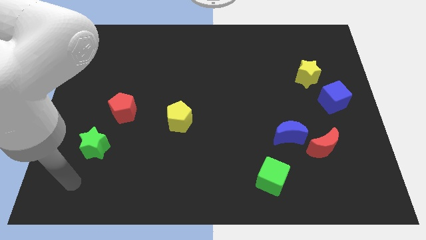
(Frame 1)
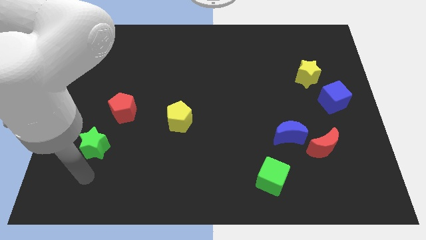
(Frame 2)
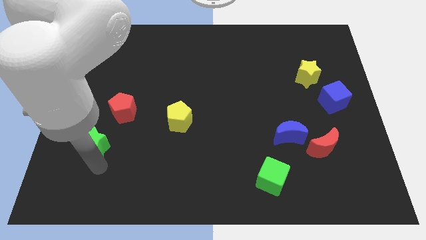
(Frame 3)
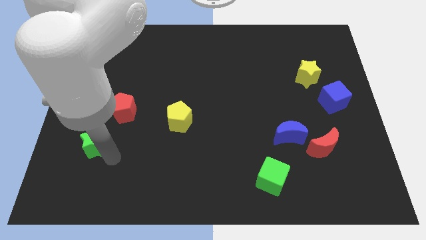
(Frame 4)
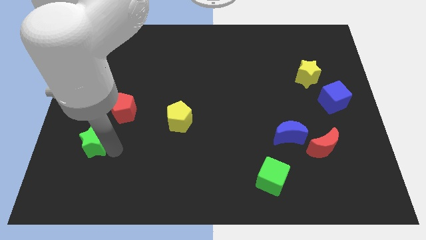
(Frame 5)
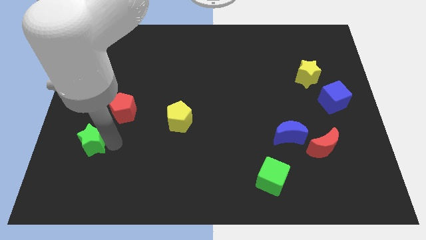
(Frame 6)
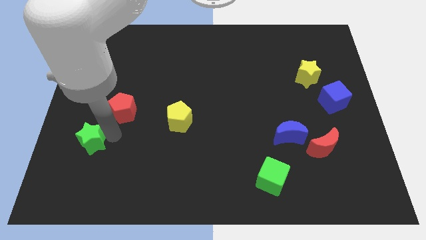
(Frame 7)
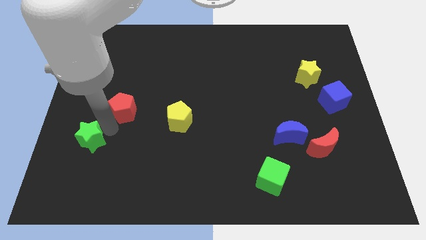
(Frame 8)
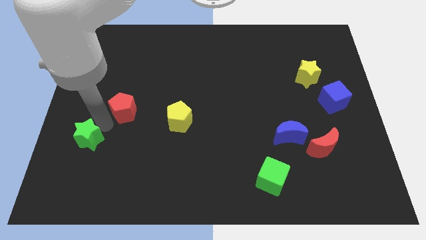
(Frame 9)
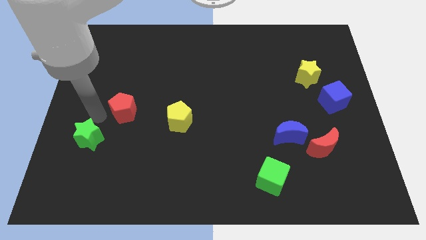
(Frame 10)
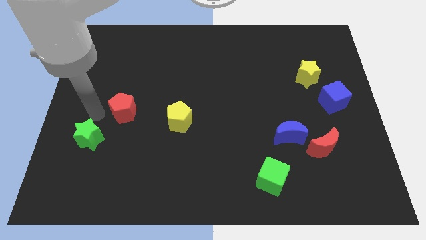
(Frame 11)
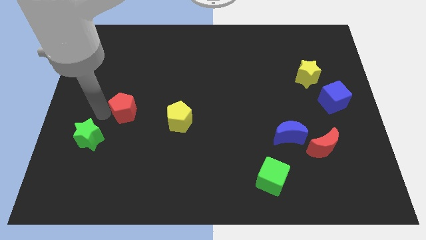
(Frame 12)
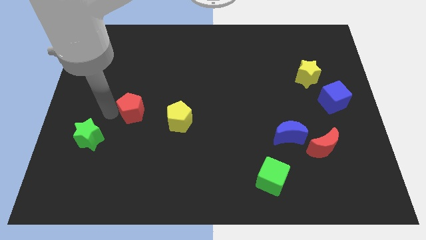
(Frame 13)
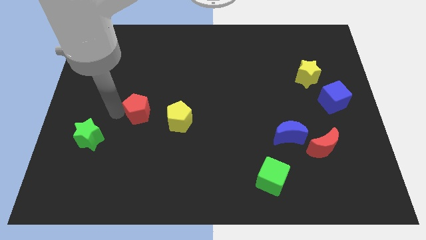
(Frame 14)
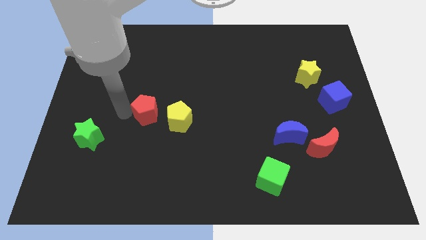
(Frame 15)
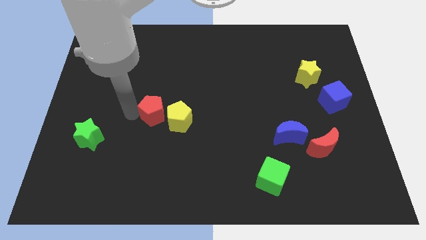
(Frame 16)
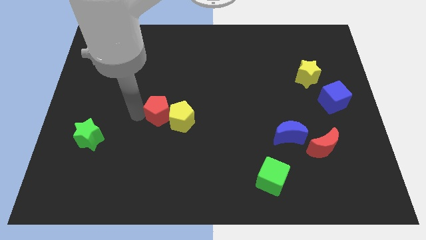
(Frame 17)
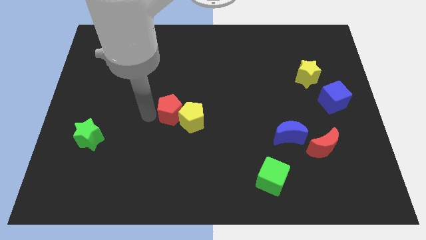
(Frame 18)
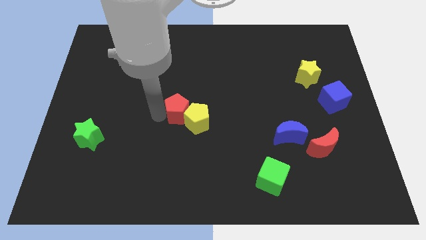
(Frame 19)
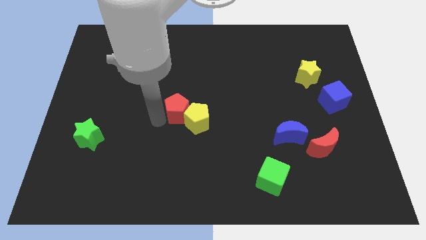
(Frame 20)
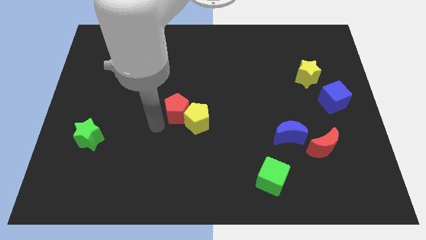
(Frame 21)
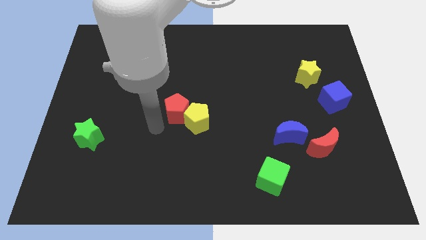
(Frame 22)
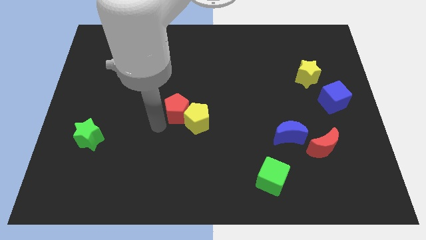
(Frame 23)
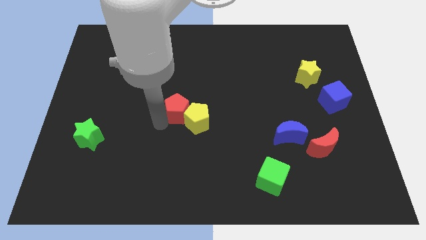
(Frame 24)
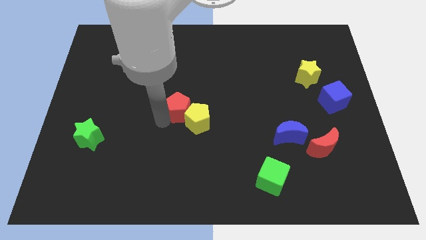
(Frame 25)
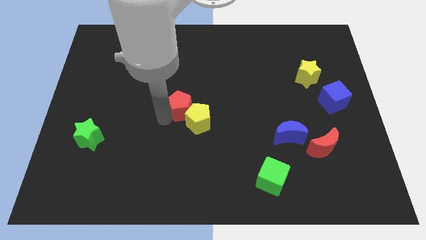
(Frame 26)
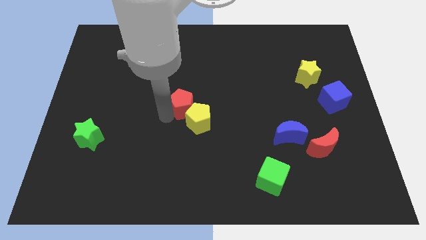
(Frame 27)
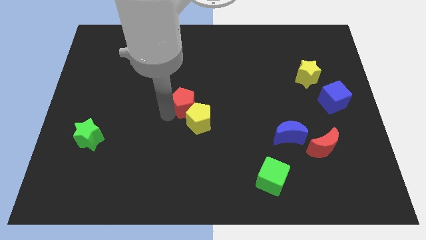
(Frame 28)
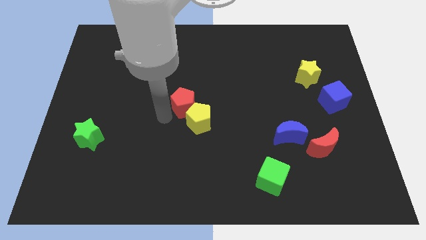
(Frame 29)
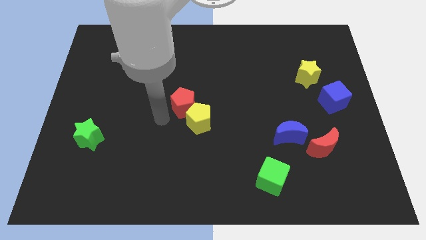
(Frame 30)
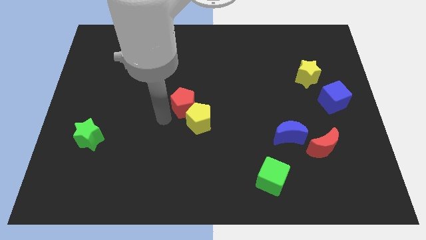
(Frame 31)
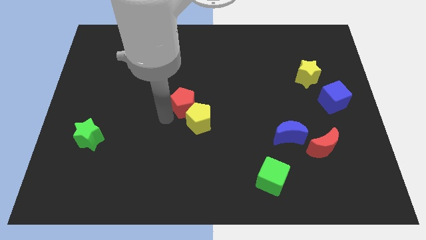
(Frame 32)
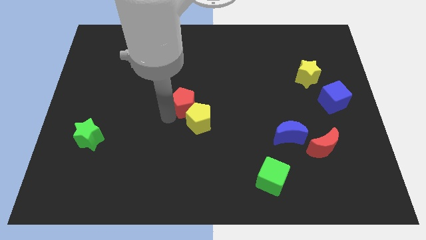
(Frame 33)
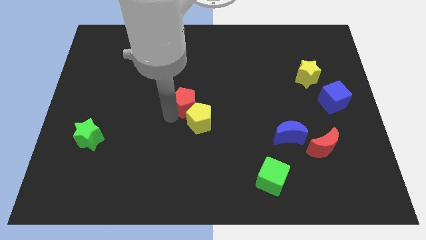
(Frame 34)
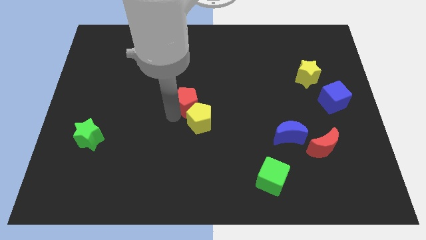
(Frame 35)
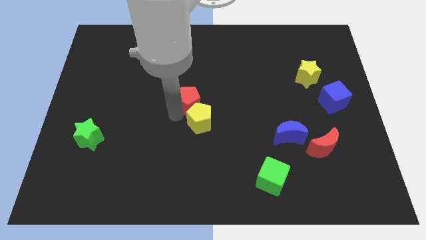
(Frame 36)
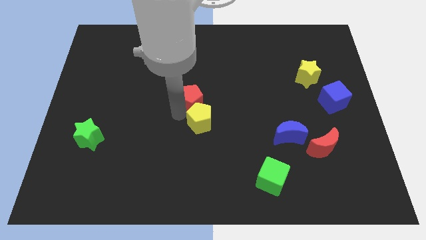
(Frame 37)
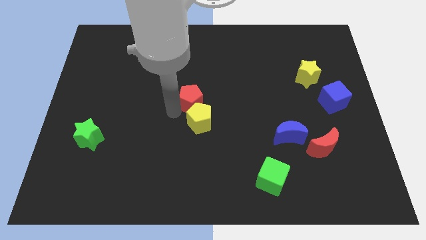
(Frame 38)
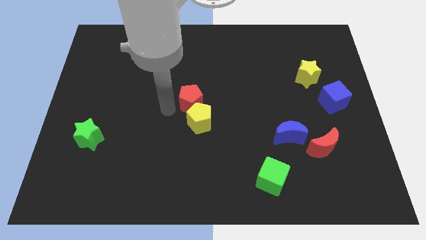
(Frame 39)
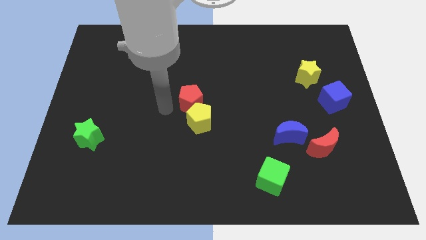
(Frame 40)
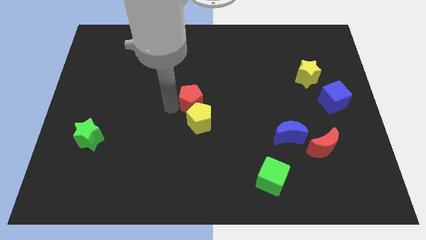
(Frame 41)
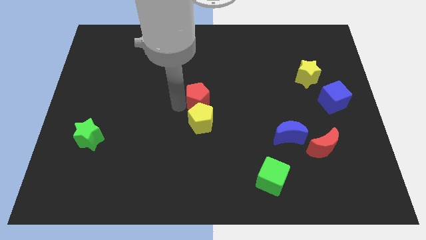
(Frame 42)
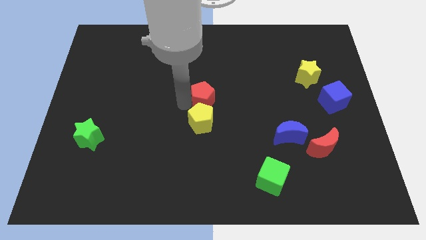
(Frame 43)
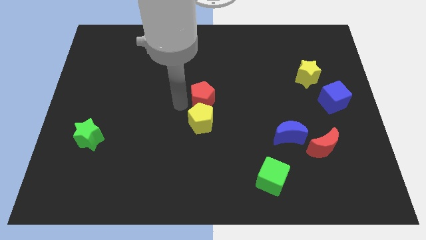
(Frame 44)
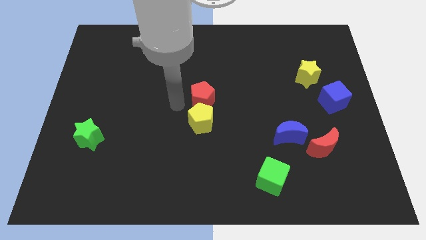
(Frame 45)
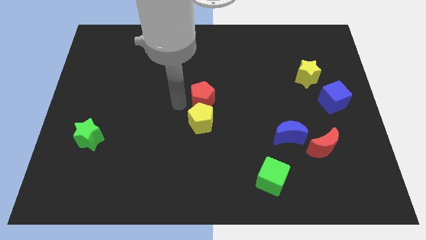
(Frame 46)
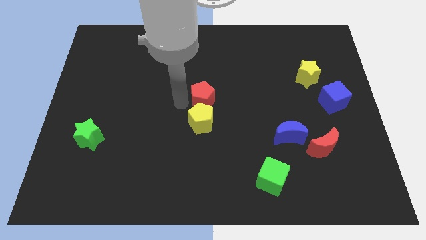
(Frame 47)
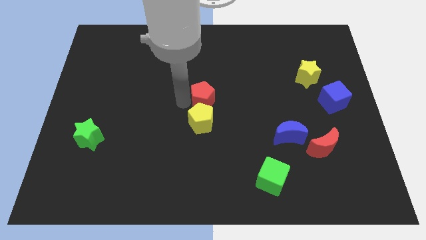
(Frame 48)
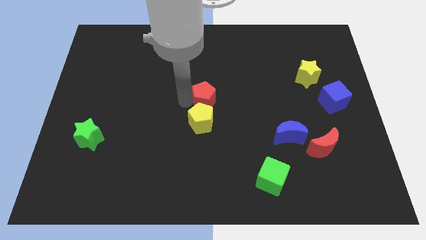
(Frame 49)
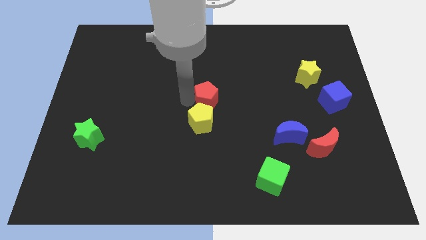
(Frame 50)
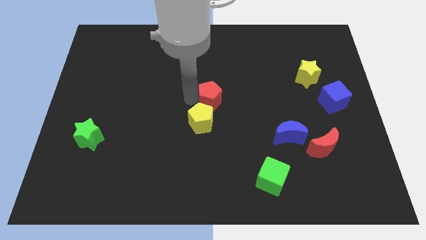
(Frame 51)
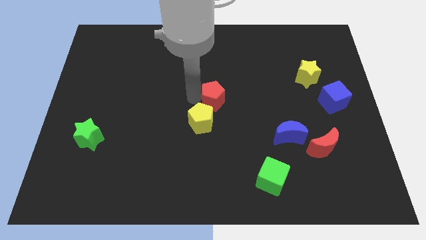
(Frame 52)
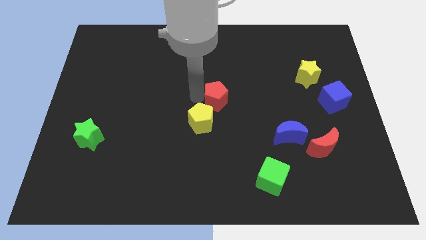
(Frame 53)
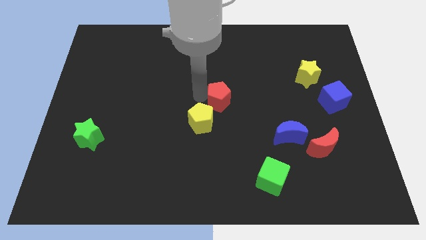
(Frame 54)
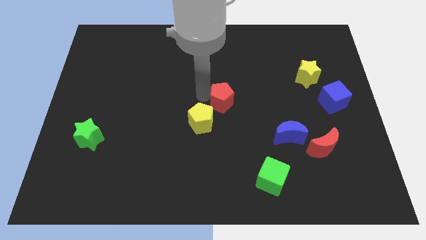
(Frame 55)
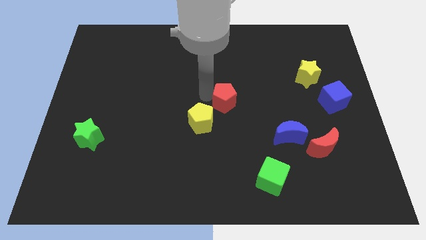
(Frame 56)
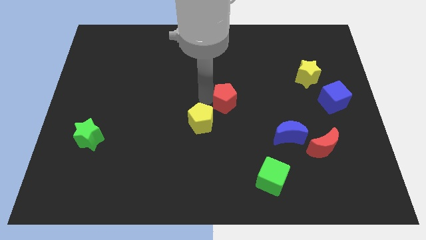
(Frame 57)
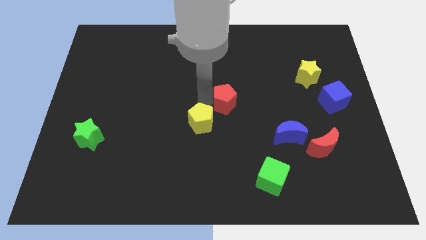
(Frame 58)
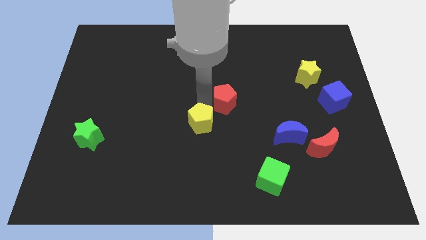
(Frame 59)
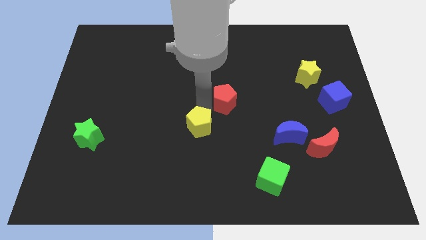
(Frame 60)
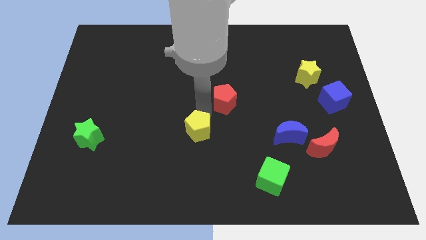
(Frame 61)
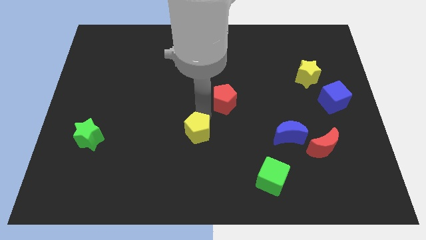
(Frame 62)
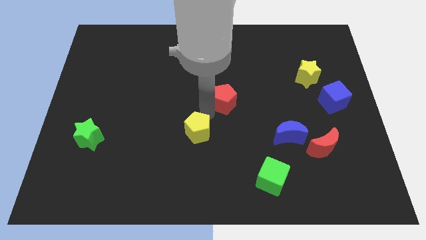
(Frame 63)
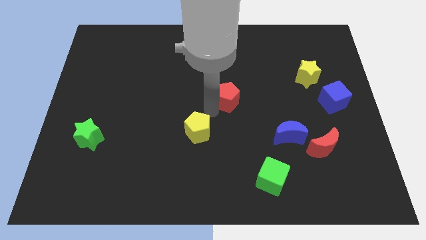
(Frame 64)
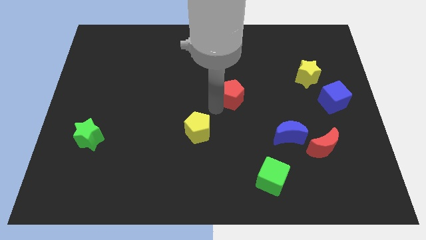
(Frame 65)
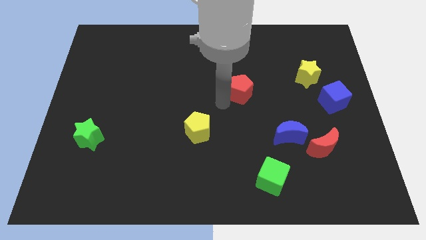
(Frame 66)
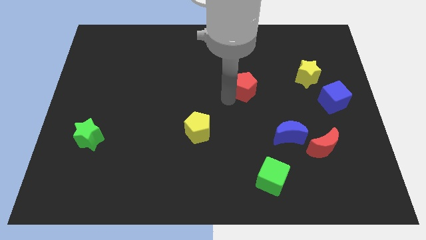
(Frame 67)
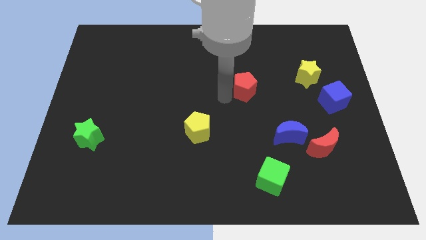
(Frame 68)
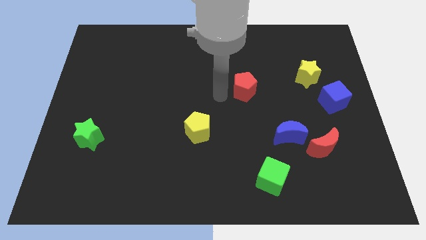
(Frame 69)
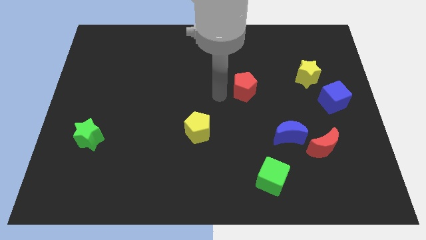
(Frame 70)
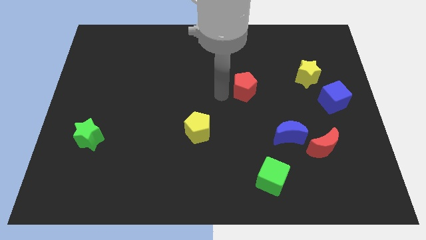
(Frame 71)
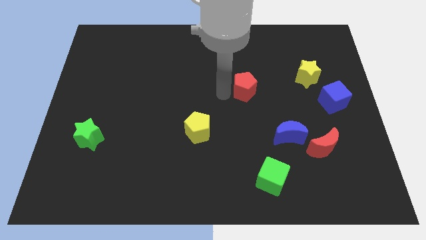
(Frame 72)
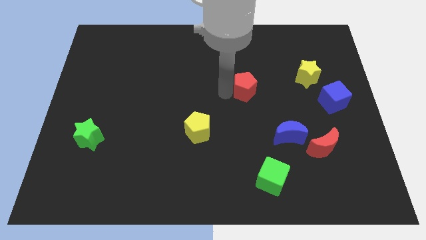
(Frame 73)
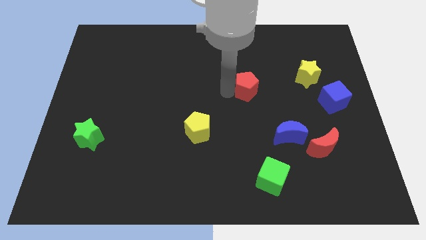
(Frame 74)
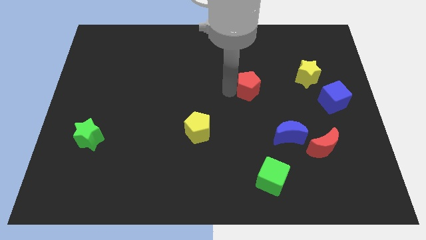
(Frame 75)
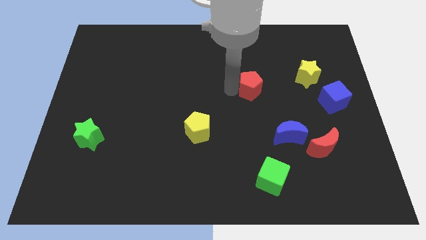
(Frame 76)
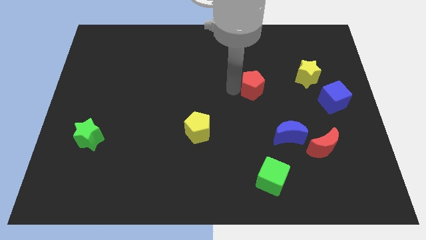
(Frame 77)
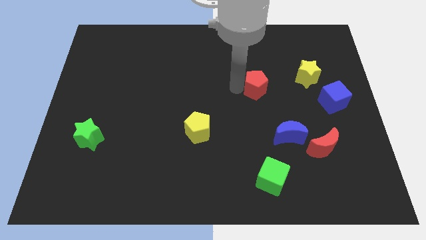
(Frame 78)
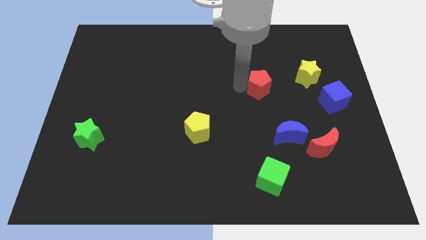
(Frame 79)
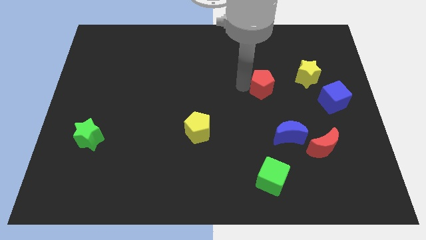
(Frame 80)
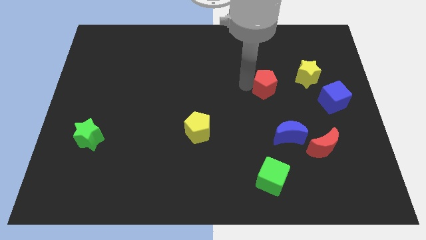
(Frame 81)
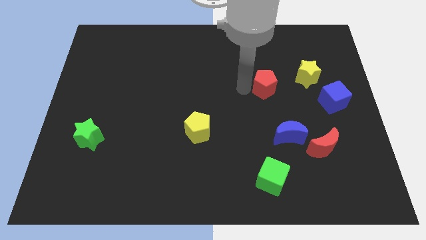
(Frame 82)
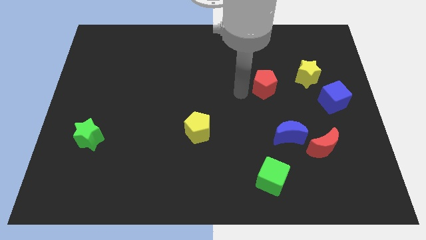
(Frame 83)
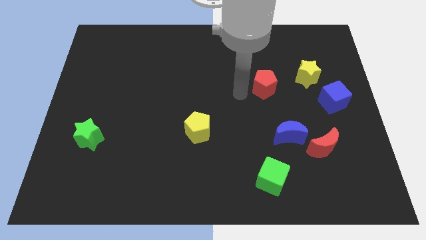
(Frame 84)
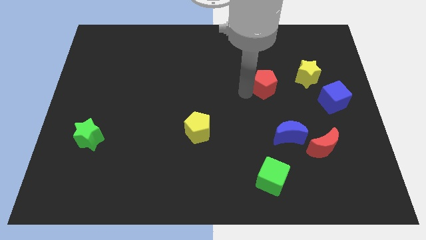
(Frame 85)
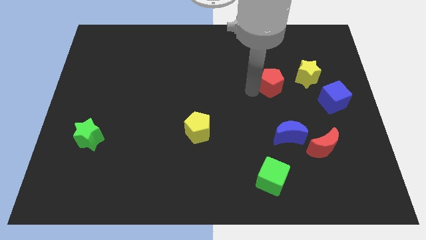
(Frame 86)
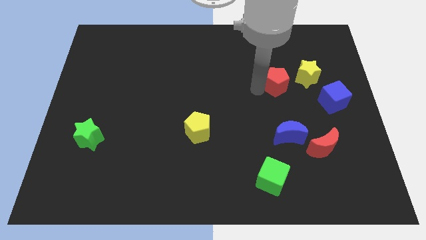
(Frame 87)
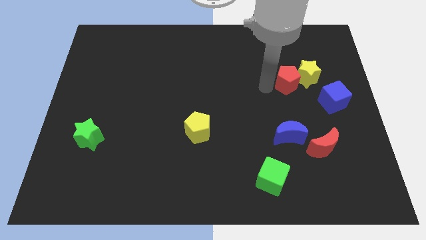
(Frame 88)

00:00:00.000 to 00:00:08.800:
slide the red pentagon next to the yellow star
